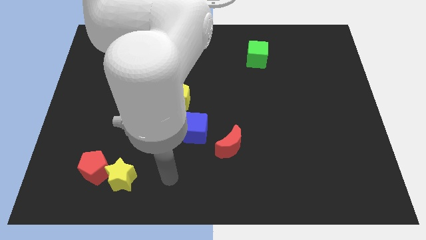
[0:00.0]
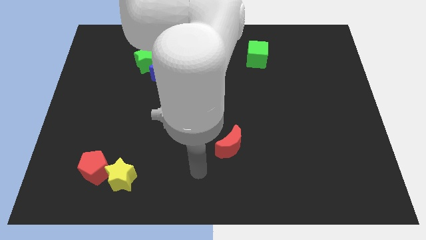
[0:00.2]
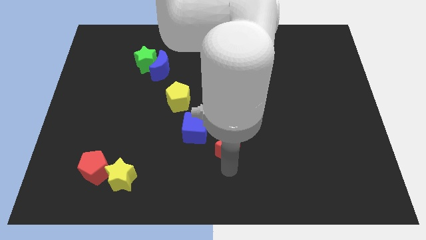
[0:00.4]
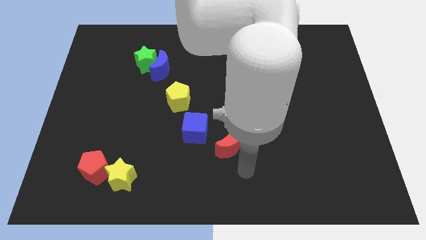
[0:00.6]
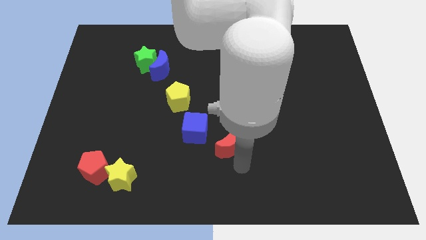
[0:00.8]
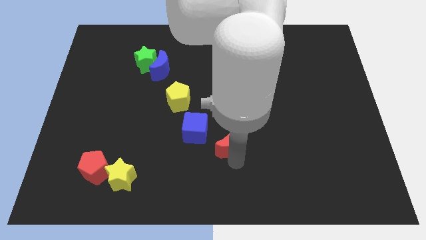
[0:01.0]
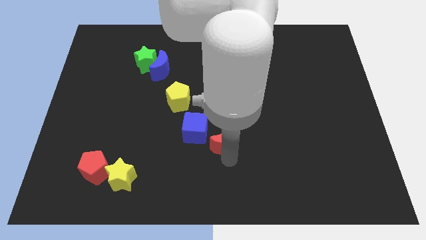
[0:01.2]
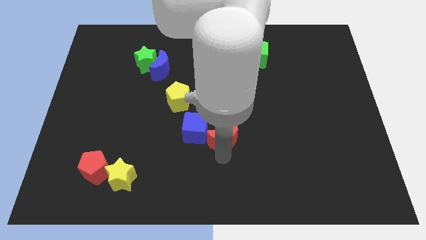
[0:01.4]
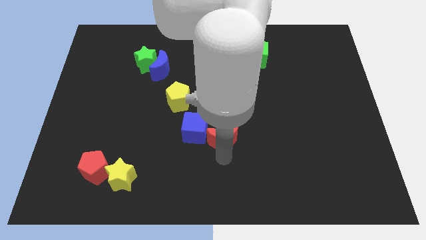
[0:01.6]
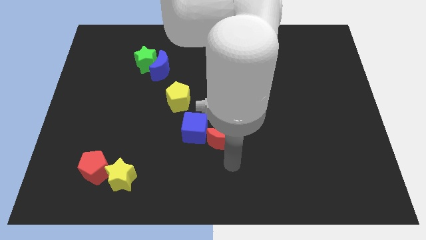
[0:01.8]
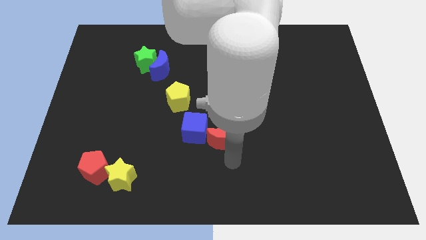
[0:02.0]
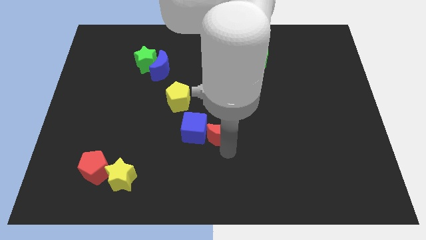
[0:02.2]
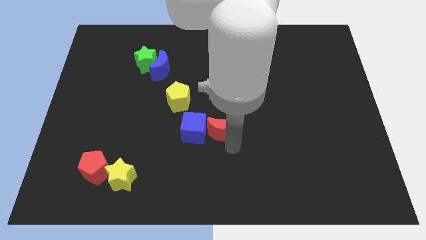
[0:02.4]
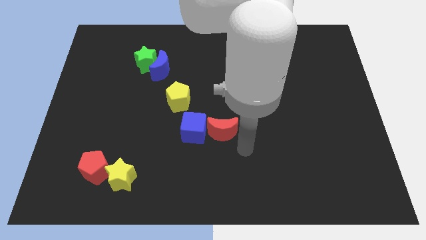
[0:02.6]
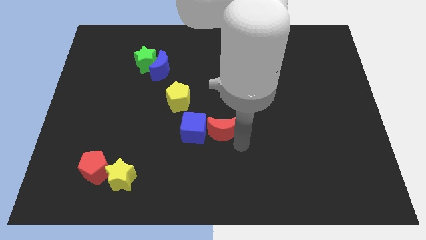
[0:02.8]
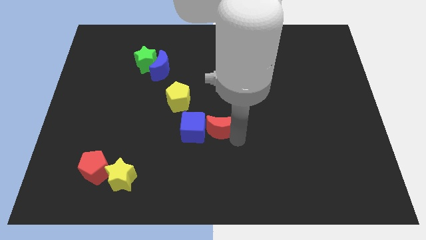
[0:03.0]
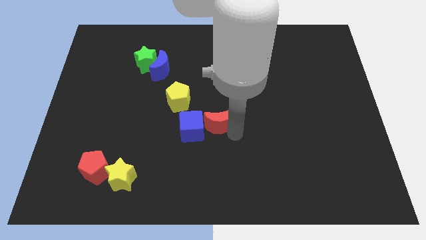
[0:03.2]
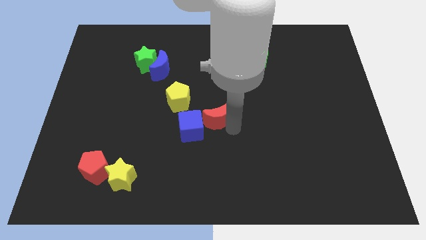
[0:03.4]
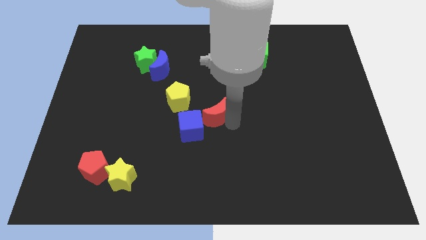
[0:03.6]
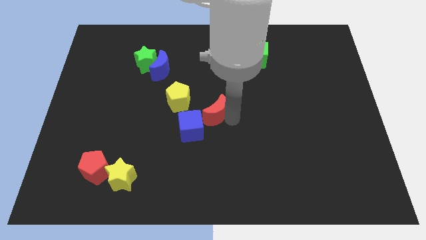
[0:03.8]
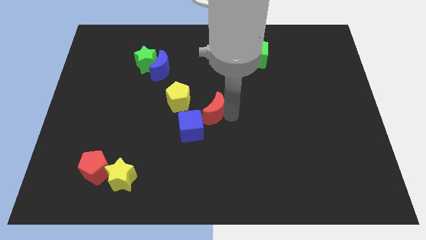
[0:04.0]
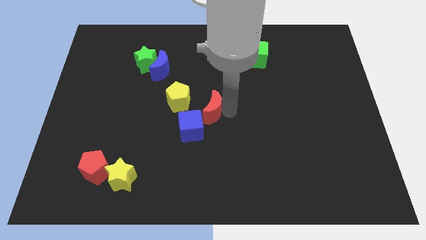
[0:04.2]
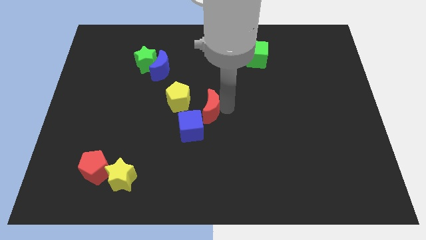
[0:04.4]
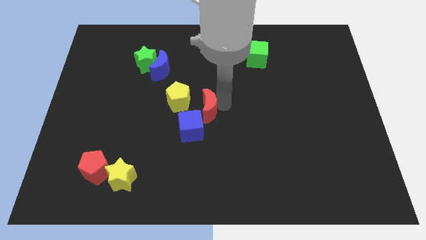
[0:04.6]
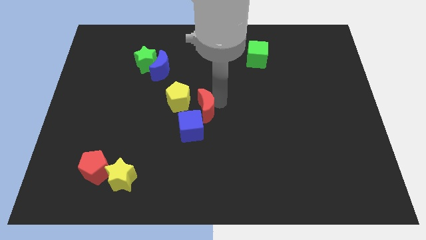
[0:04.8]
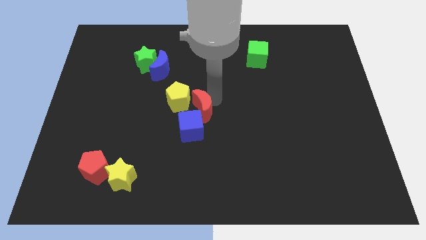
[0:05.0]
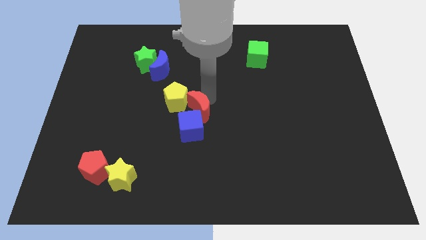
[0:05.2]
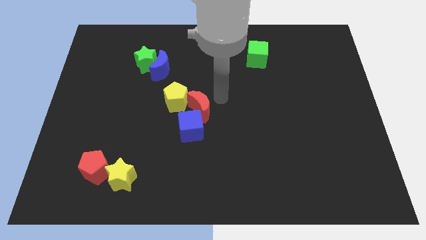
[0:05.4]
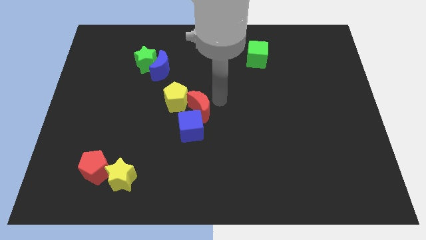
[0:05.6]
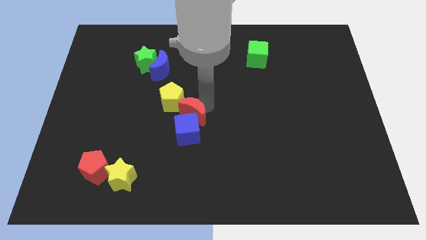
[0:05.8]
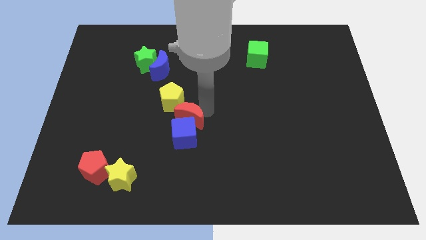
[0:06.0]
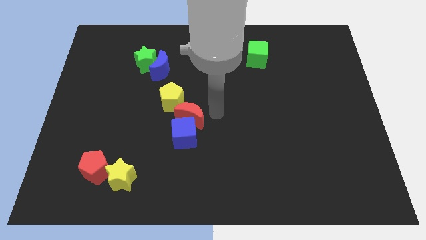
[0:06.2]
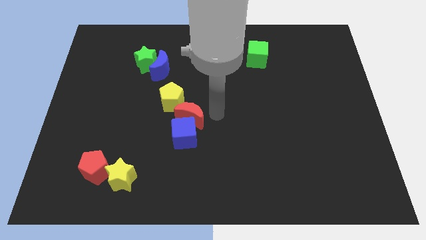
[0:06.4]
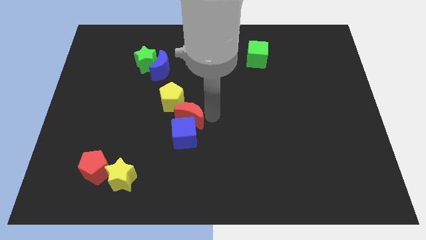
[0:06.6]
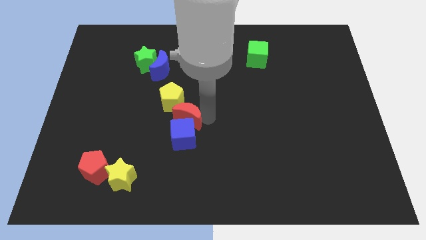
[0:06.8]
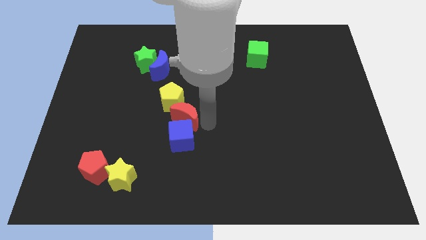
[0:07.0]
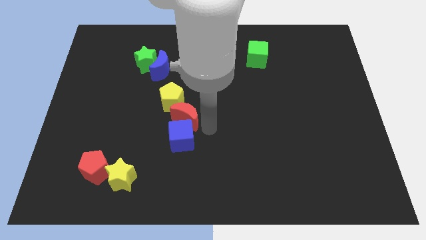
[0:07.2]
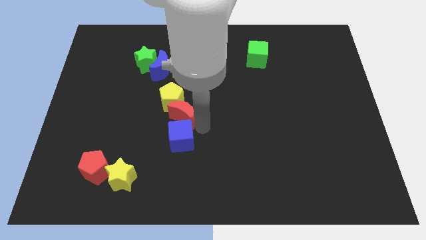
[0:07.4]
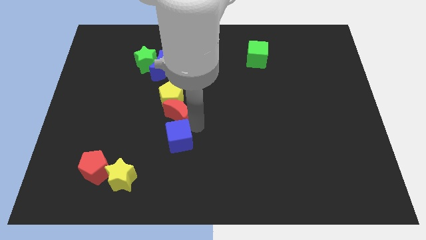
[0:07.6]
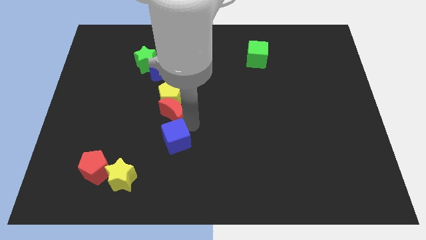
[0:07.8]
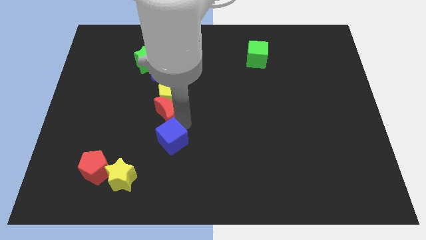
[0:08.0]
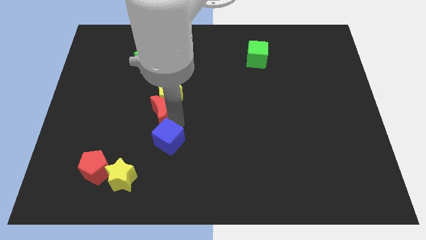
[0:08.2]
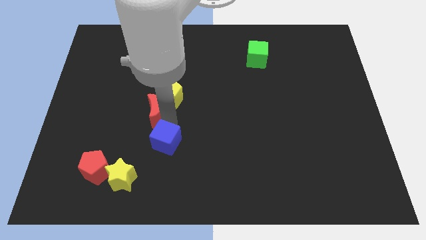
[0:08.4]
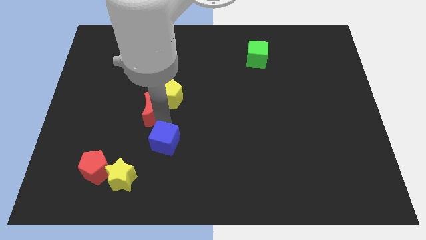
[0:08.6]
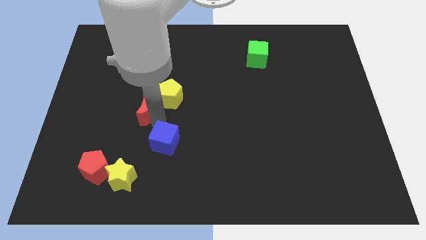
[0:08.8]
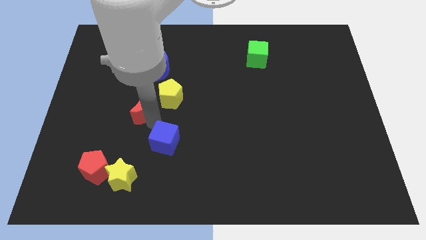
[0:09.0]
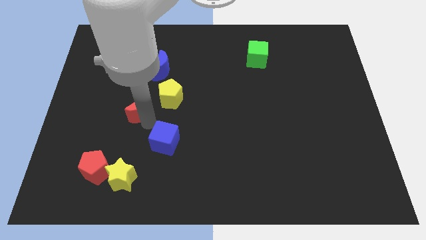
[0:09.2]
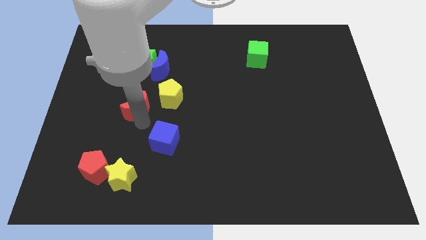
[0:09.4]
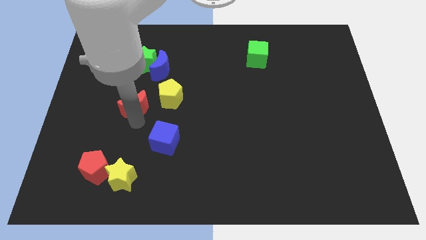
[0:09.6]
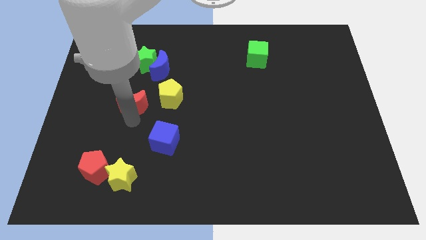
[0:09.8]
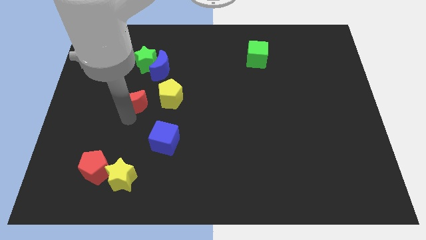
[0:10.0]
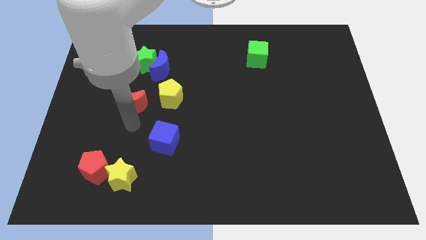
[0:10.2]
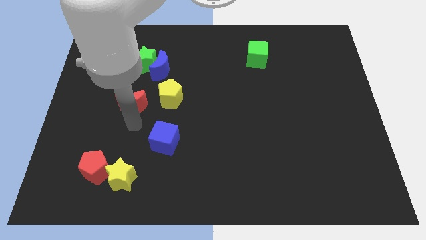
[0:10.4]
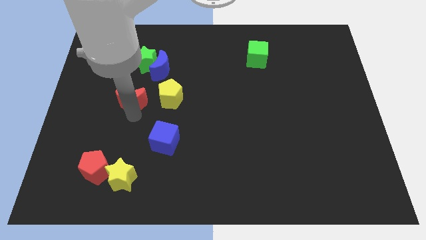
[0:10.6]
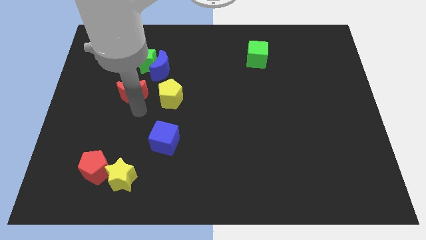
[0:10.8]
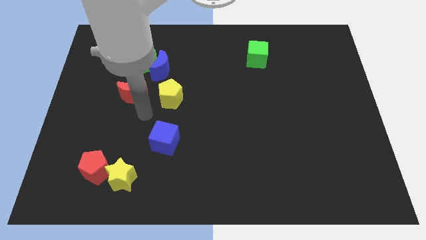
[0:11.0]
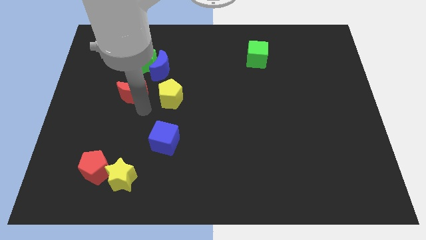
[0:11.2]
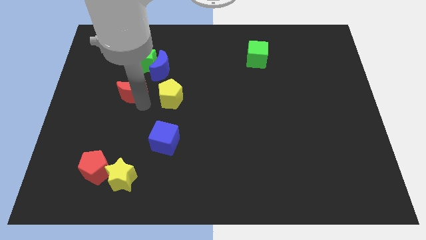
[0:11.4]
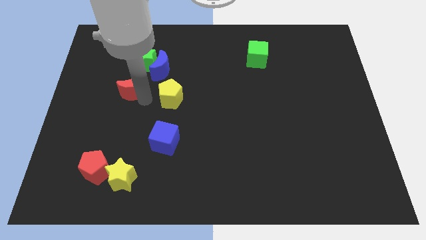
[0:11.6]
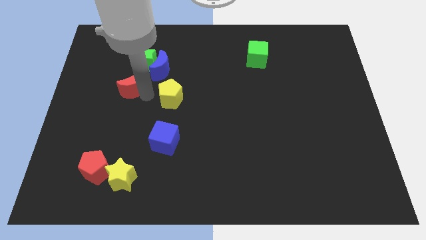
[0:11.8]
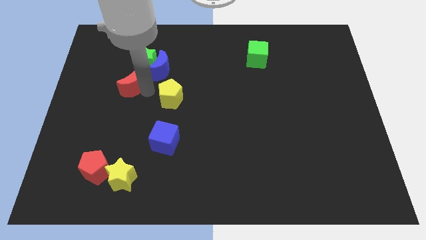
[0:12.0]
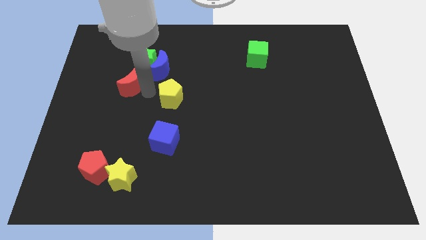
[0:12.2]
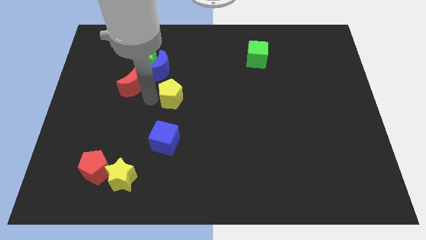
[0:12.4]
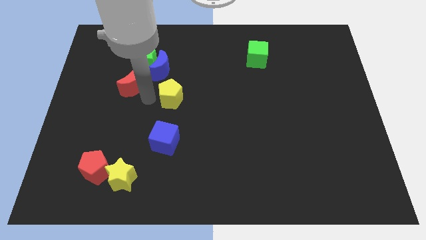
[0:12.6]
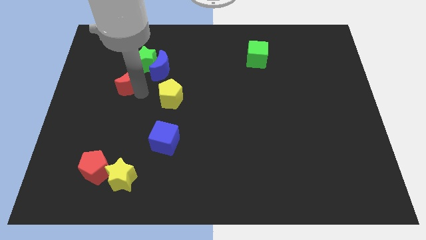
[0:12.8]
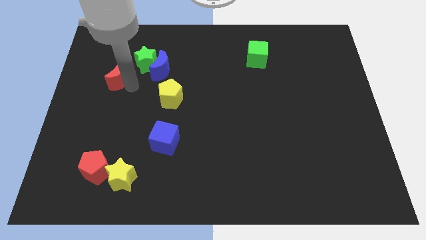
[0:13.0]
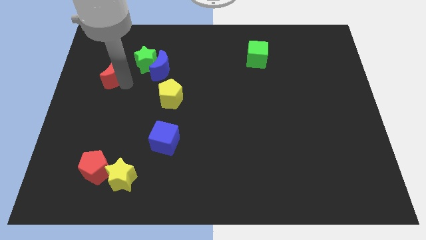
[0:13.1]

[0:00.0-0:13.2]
push the red moon just left of the green star

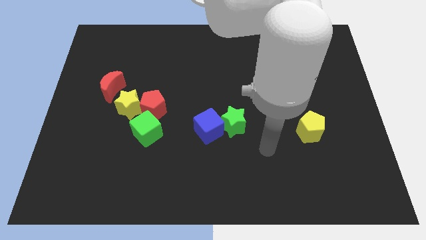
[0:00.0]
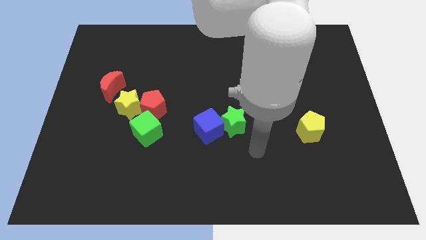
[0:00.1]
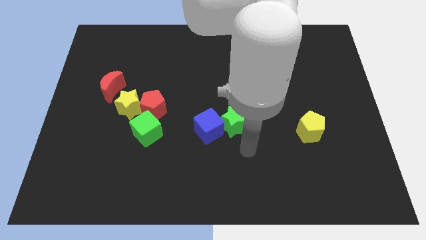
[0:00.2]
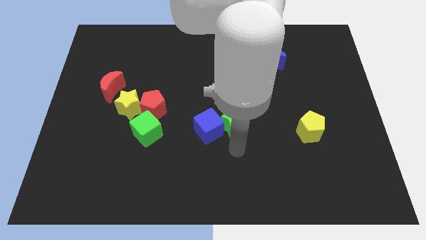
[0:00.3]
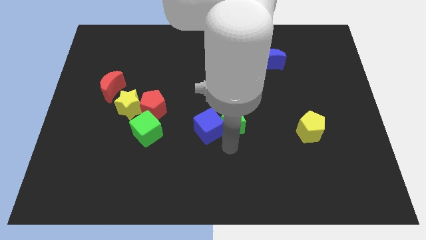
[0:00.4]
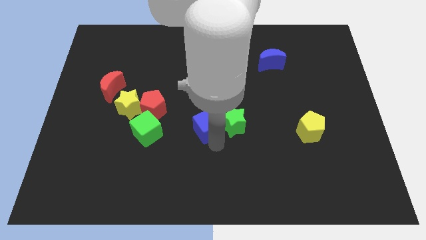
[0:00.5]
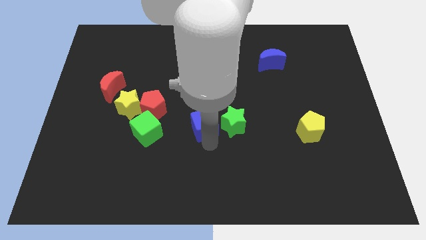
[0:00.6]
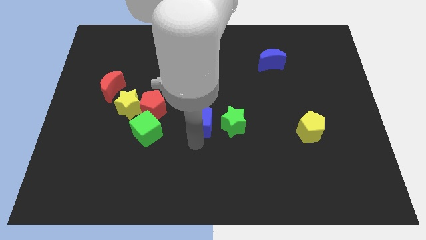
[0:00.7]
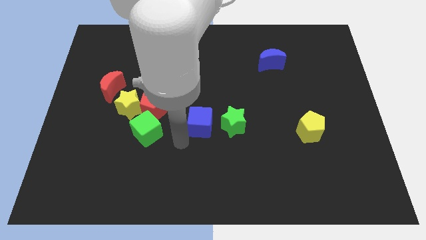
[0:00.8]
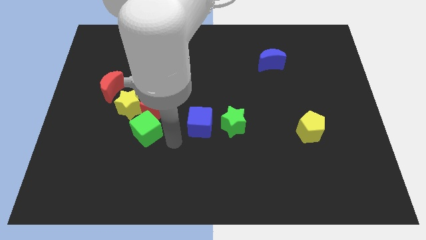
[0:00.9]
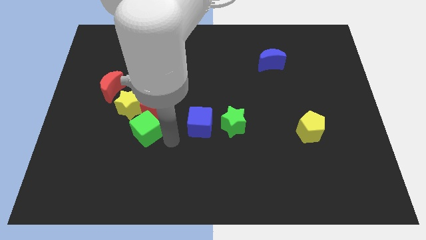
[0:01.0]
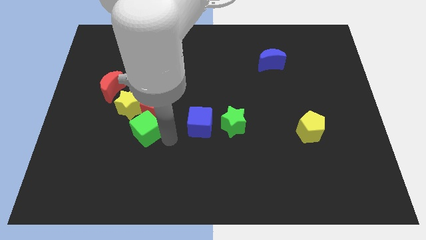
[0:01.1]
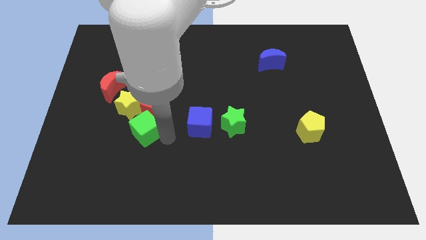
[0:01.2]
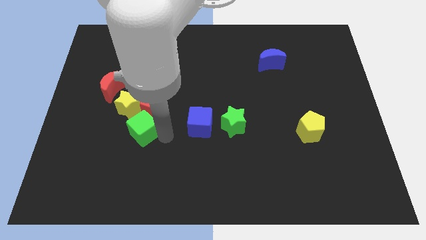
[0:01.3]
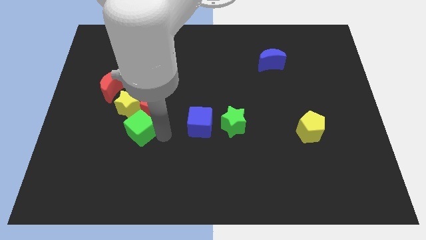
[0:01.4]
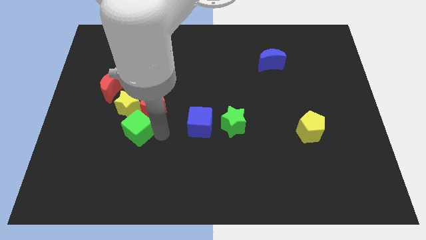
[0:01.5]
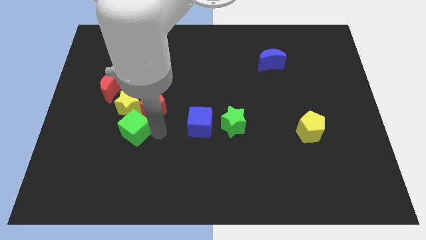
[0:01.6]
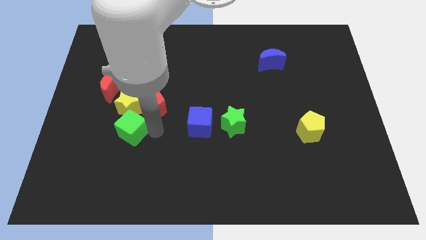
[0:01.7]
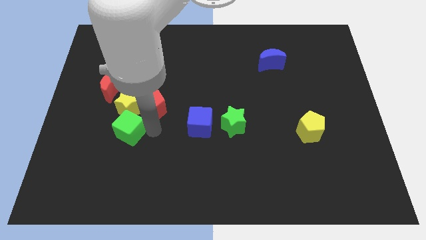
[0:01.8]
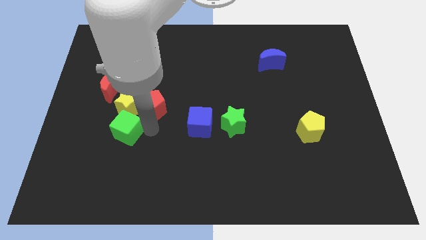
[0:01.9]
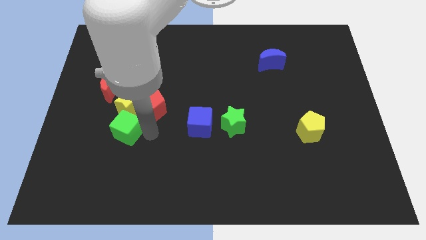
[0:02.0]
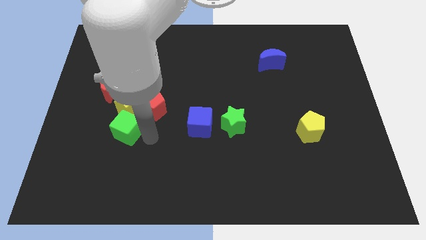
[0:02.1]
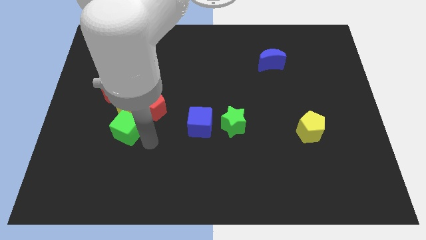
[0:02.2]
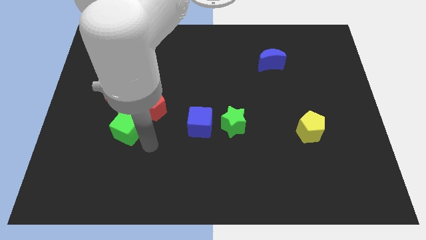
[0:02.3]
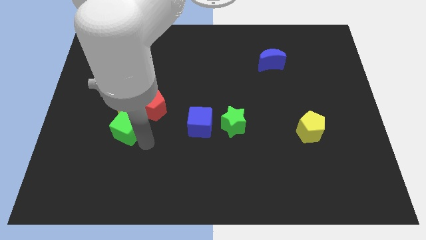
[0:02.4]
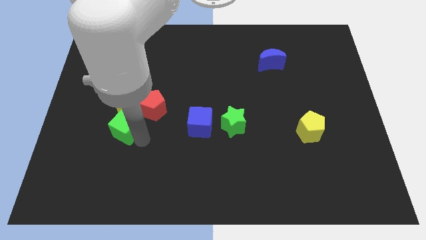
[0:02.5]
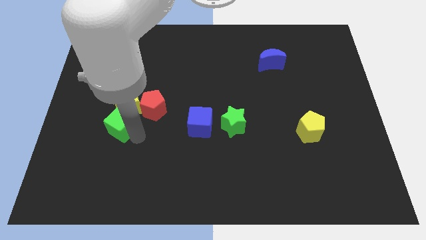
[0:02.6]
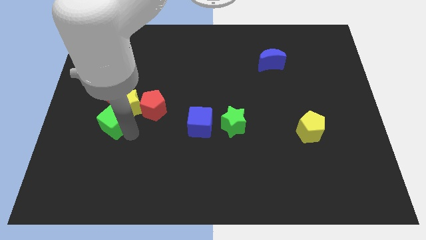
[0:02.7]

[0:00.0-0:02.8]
slide the green cube left of the red pentagon
